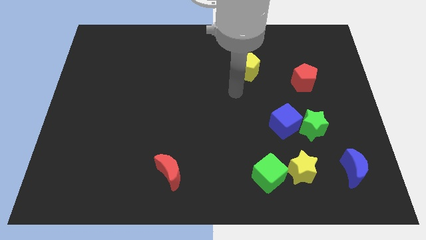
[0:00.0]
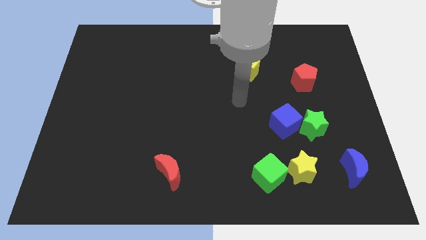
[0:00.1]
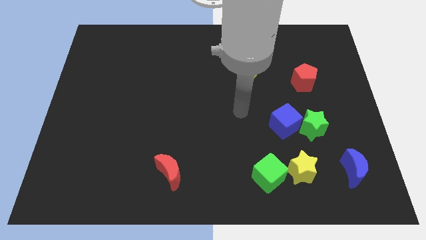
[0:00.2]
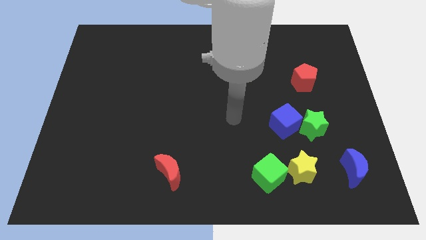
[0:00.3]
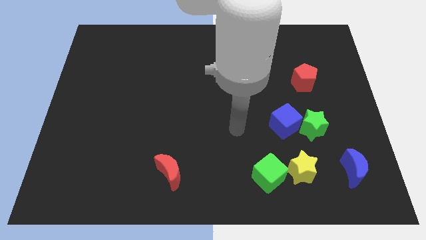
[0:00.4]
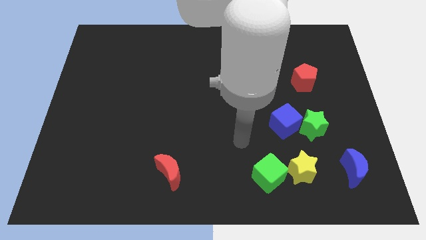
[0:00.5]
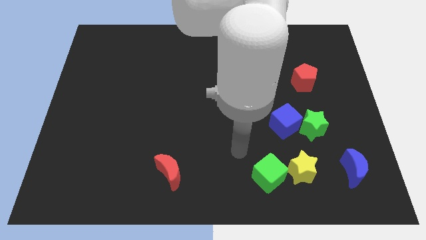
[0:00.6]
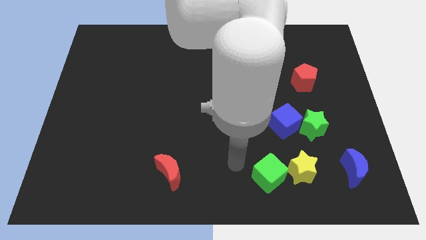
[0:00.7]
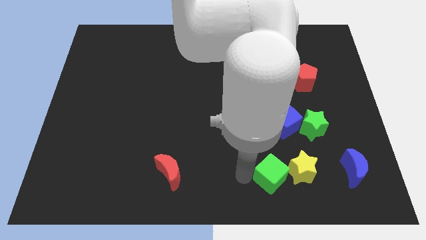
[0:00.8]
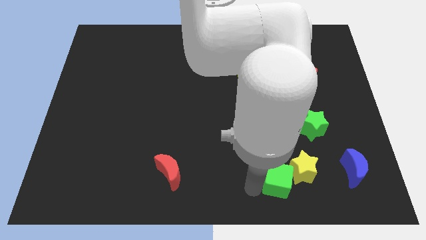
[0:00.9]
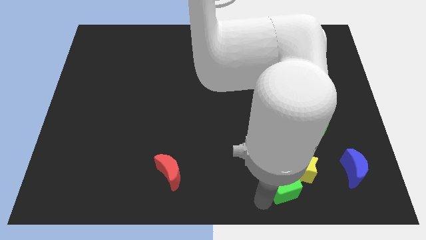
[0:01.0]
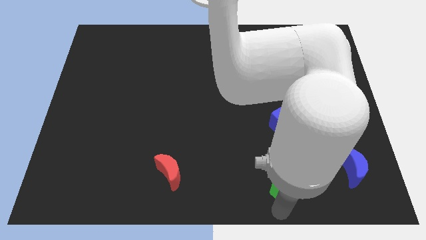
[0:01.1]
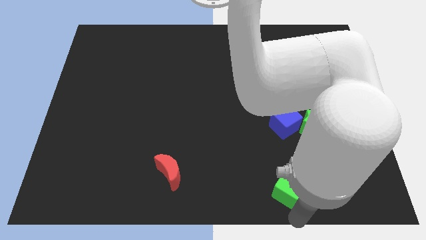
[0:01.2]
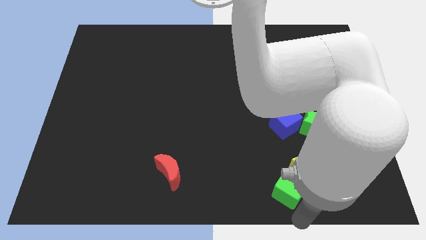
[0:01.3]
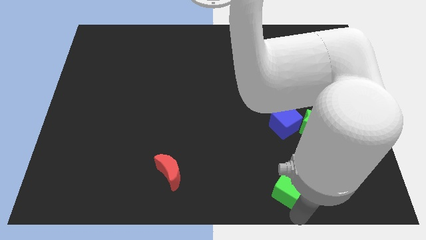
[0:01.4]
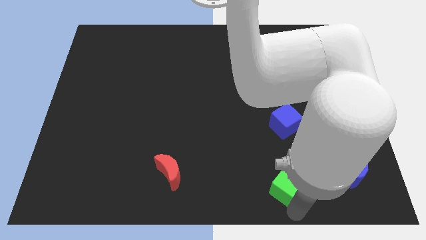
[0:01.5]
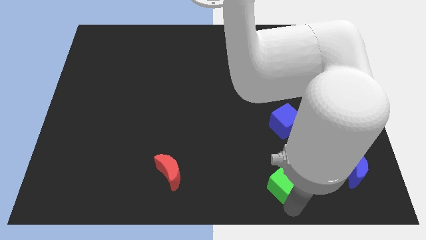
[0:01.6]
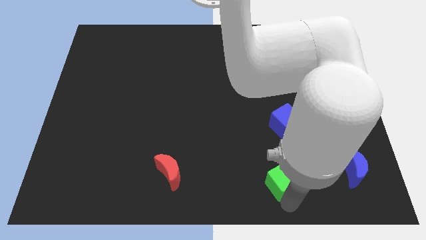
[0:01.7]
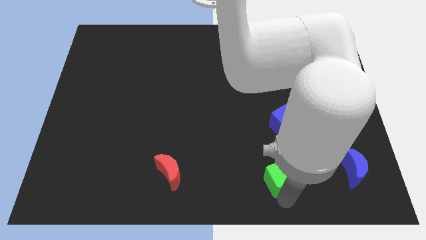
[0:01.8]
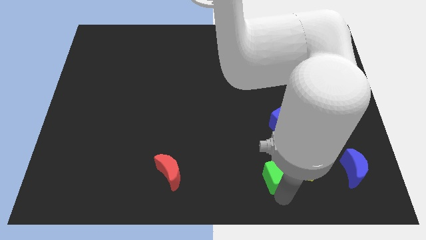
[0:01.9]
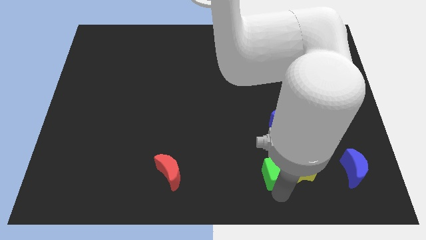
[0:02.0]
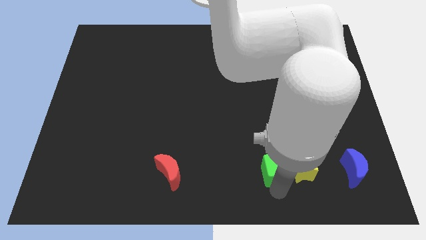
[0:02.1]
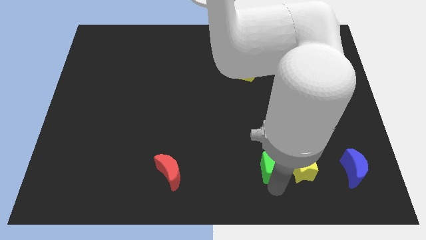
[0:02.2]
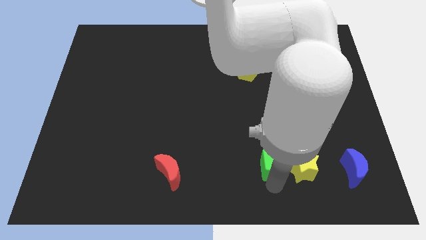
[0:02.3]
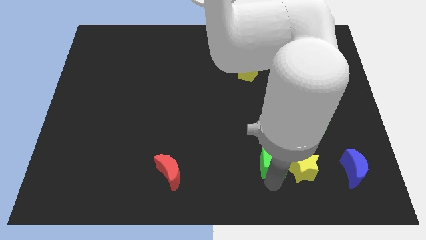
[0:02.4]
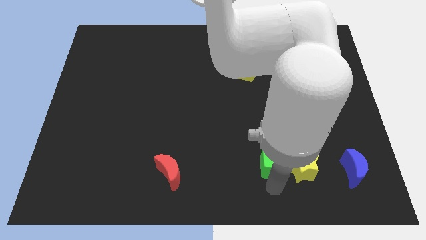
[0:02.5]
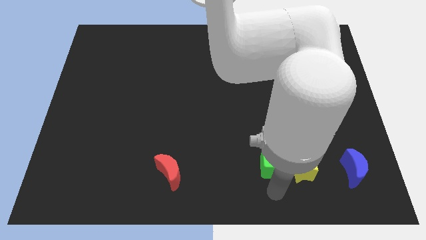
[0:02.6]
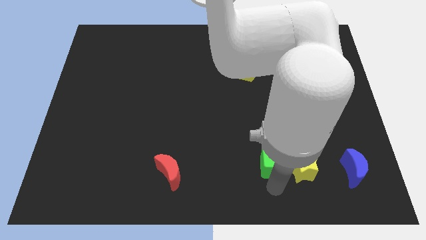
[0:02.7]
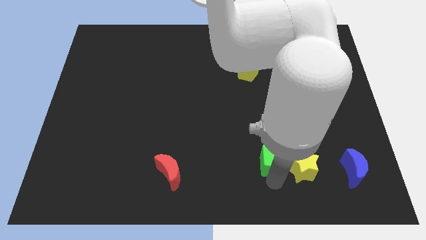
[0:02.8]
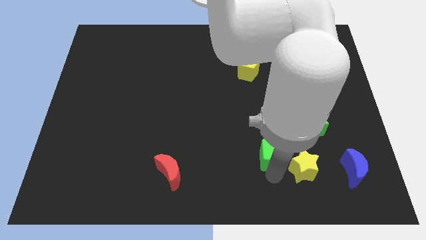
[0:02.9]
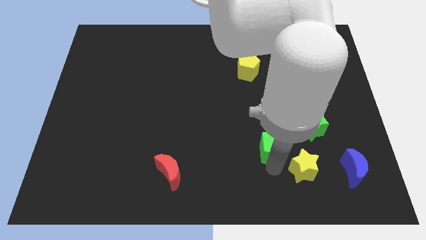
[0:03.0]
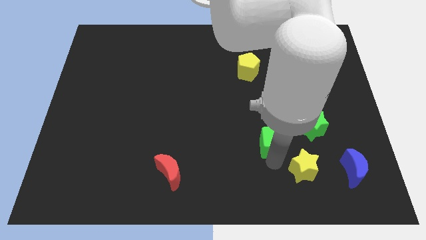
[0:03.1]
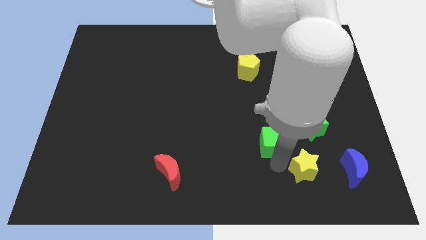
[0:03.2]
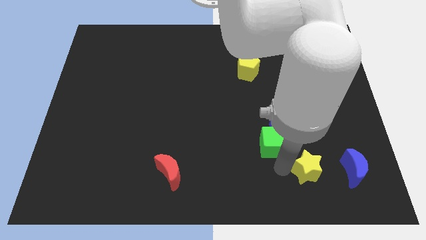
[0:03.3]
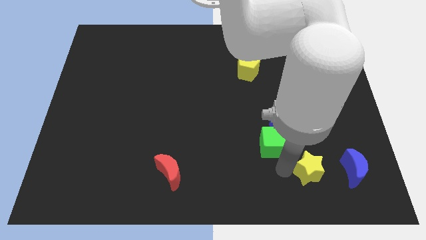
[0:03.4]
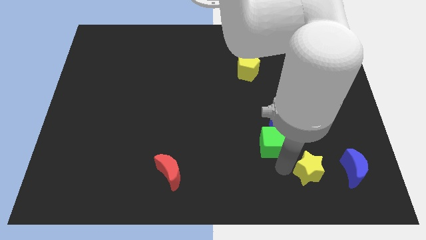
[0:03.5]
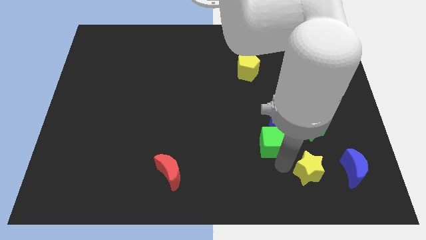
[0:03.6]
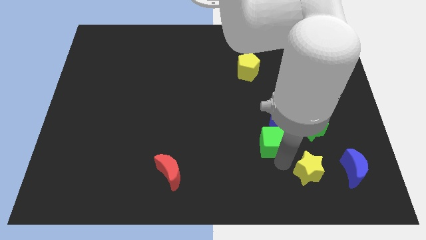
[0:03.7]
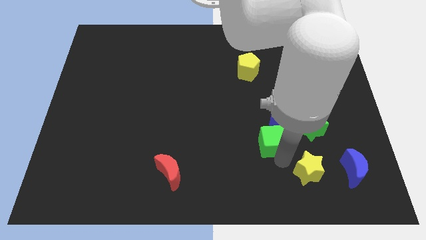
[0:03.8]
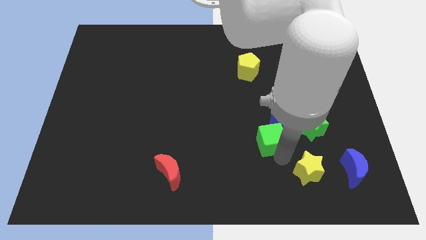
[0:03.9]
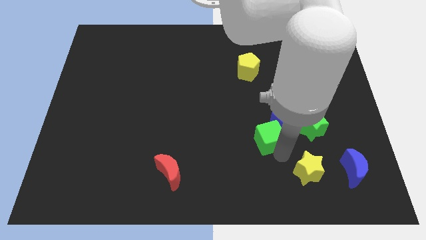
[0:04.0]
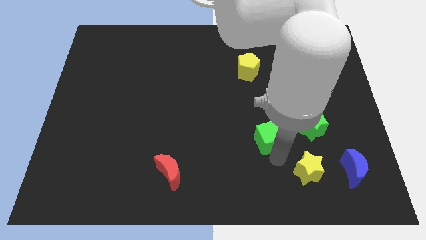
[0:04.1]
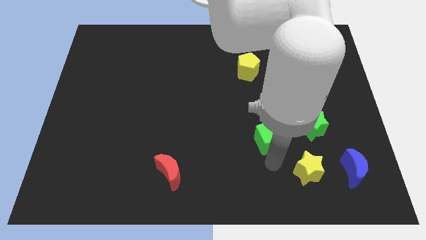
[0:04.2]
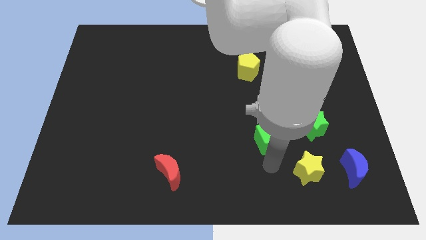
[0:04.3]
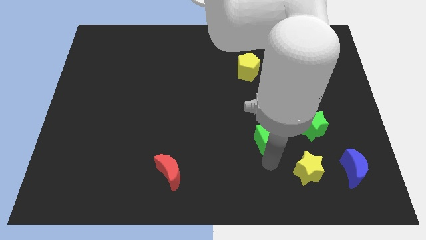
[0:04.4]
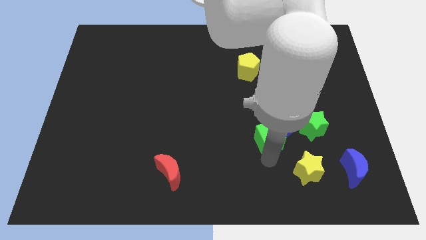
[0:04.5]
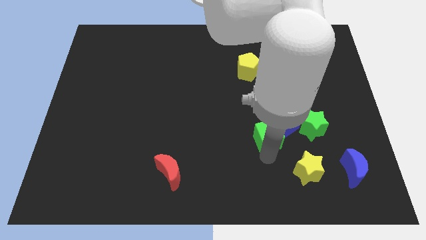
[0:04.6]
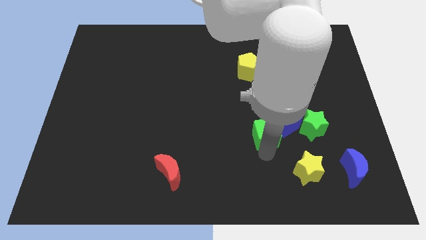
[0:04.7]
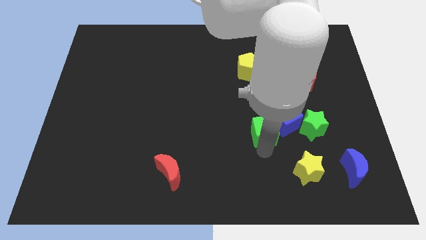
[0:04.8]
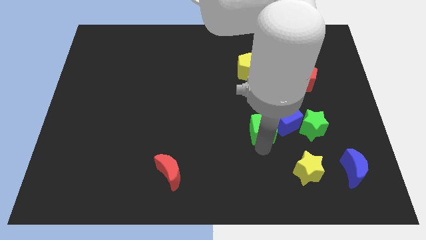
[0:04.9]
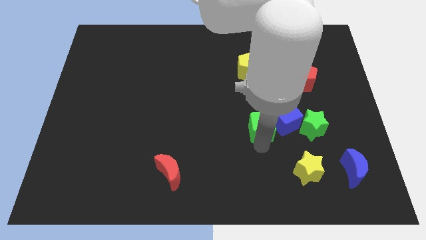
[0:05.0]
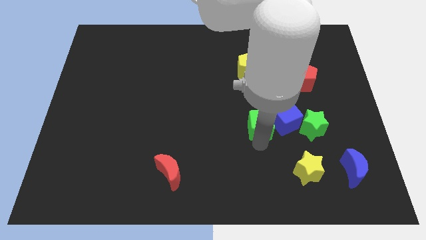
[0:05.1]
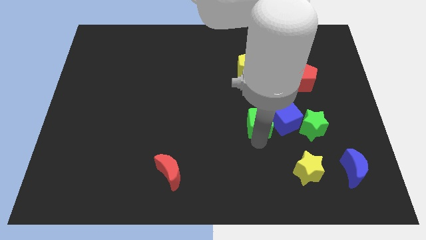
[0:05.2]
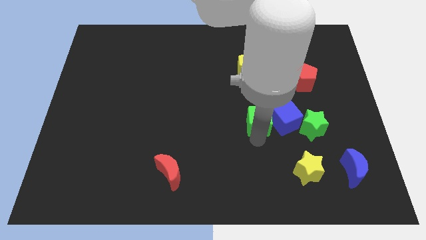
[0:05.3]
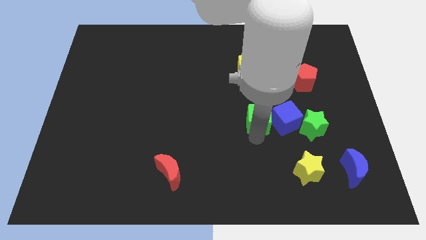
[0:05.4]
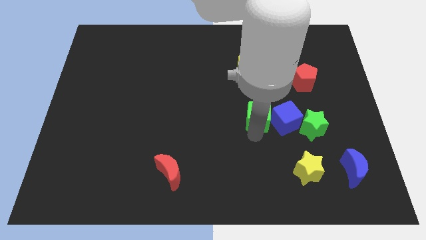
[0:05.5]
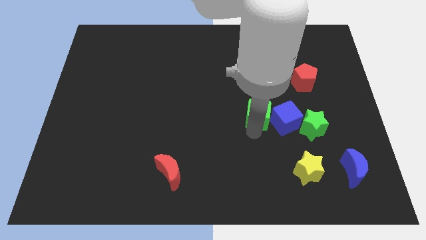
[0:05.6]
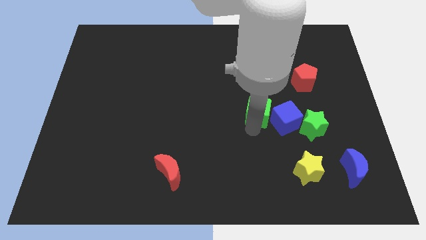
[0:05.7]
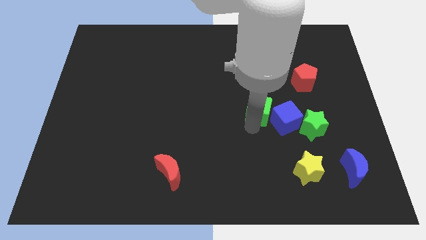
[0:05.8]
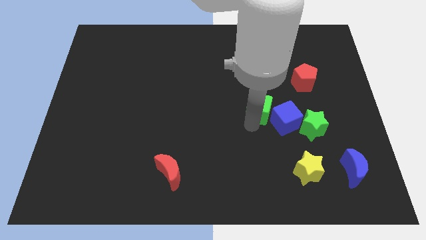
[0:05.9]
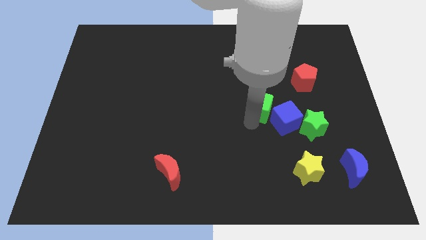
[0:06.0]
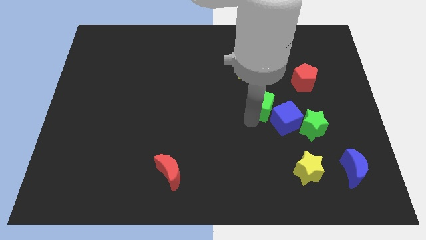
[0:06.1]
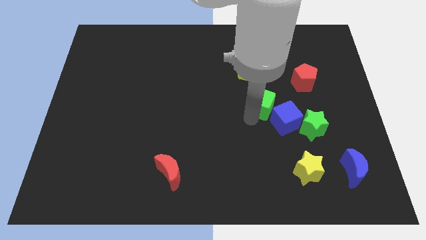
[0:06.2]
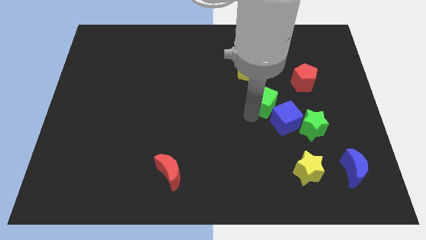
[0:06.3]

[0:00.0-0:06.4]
put the green cube to the top of the blue cube

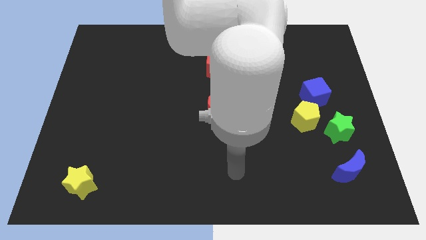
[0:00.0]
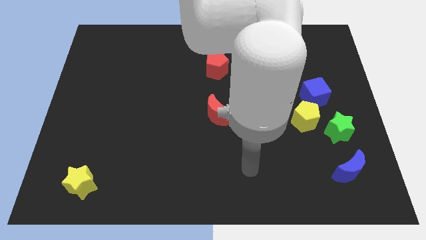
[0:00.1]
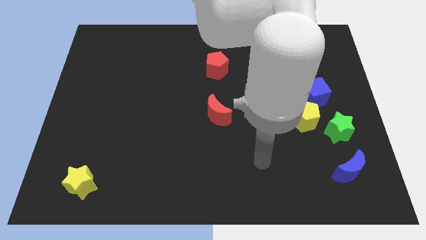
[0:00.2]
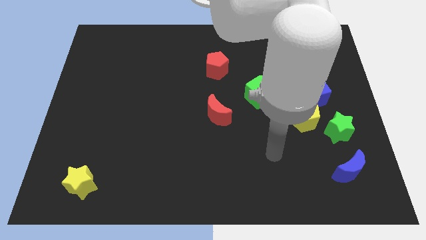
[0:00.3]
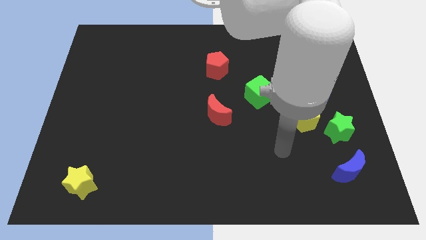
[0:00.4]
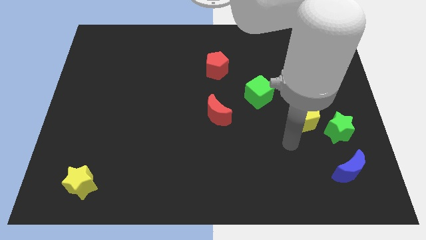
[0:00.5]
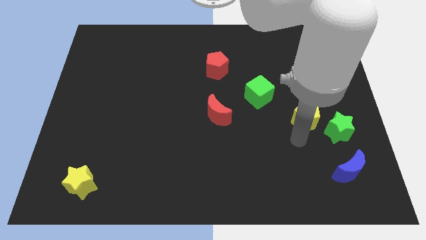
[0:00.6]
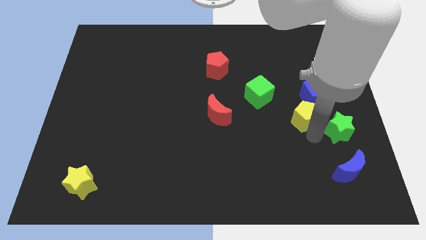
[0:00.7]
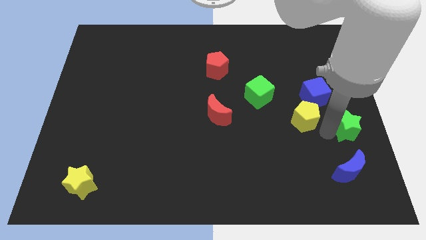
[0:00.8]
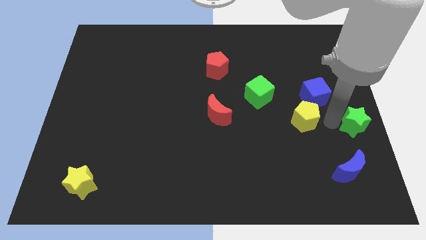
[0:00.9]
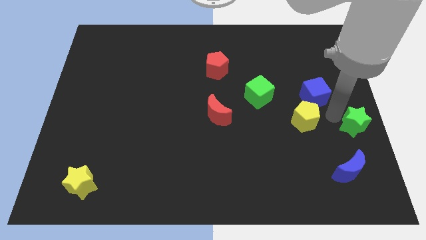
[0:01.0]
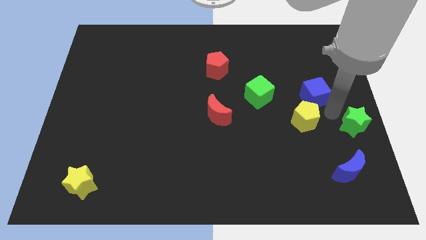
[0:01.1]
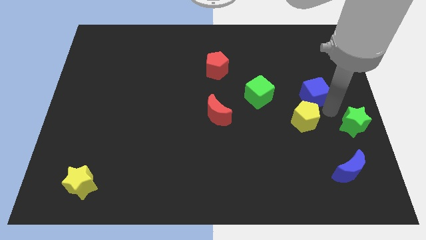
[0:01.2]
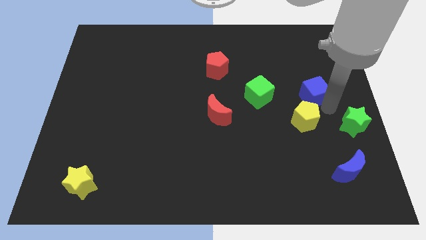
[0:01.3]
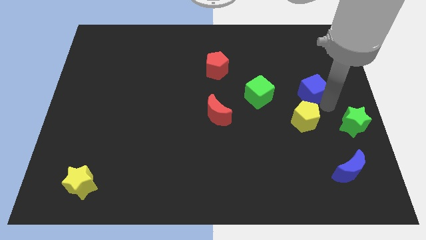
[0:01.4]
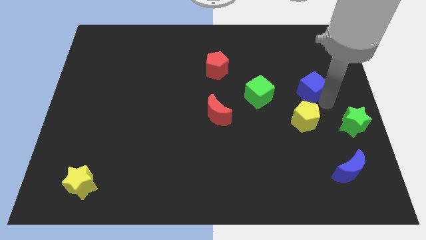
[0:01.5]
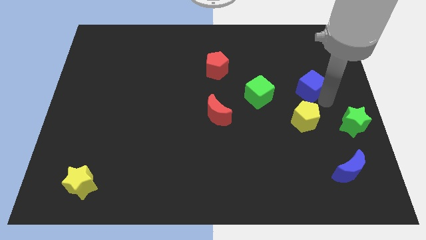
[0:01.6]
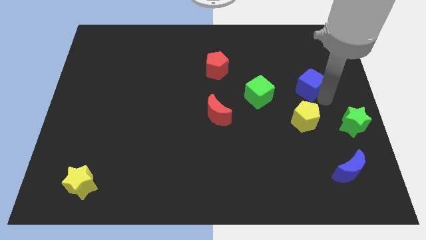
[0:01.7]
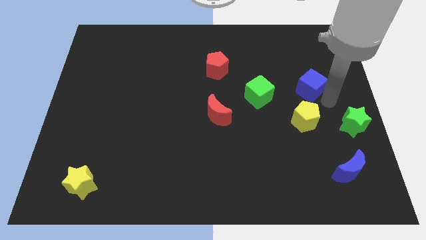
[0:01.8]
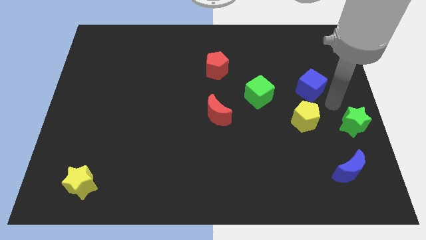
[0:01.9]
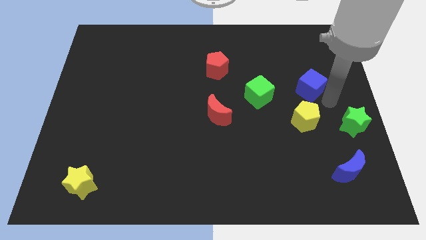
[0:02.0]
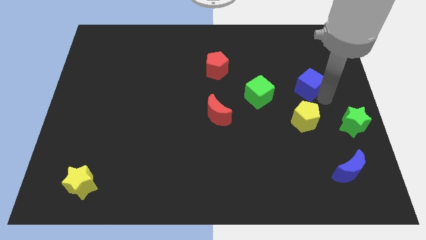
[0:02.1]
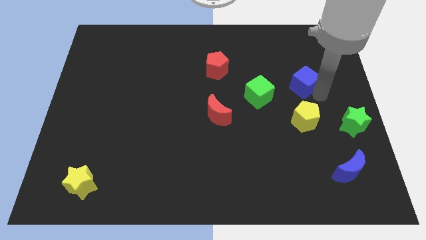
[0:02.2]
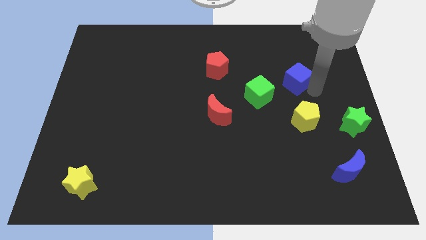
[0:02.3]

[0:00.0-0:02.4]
push the blue cube diagonally up and to the right of the green cube
